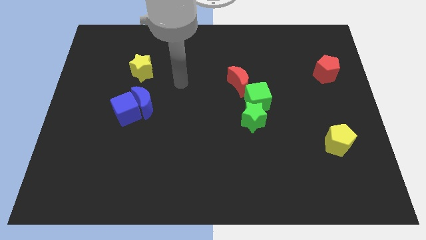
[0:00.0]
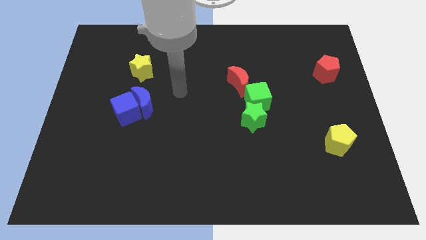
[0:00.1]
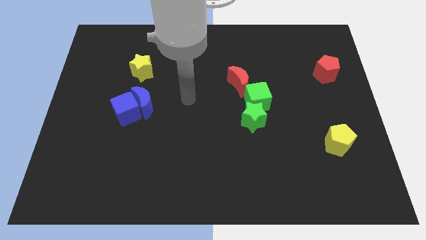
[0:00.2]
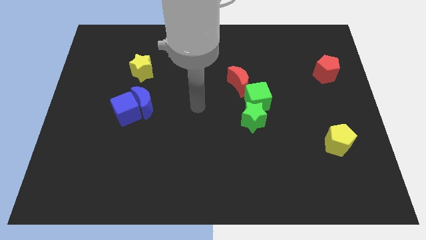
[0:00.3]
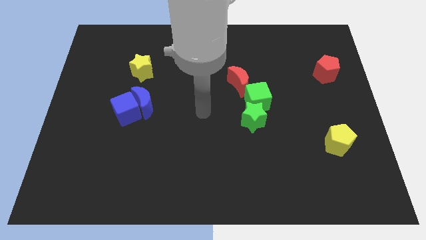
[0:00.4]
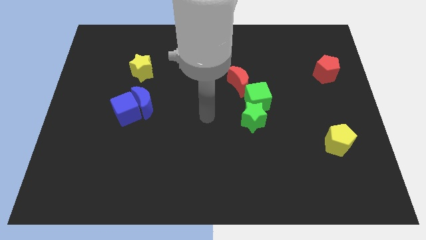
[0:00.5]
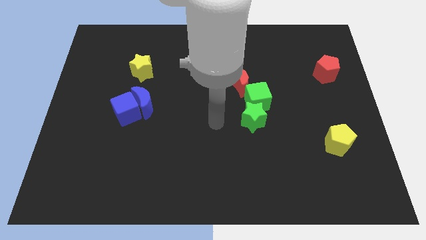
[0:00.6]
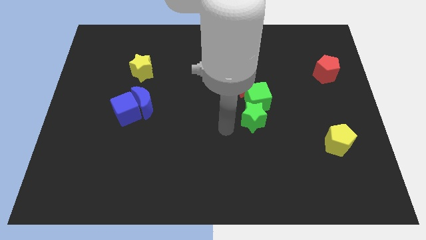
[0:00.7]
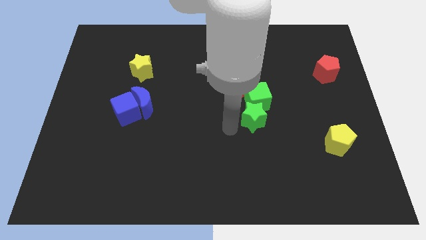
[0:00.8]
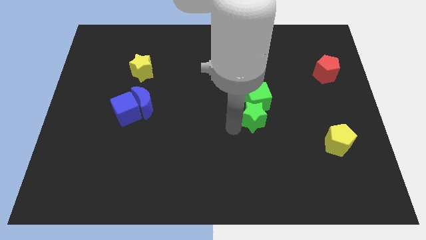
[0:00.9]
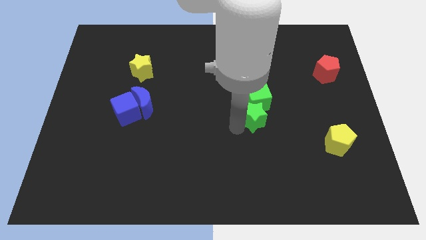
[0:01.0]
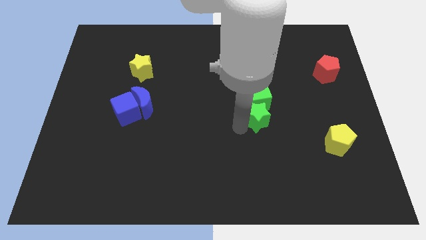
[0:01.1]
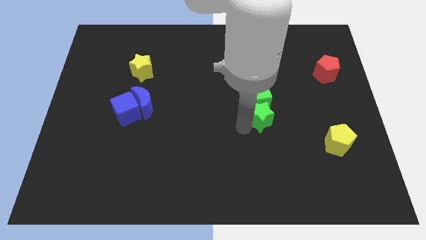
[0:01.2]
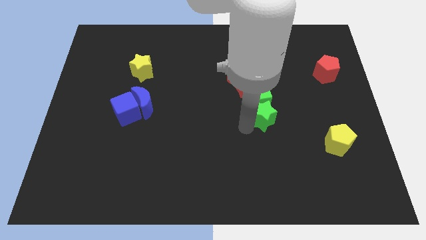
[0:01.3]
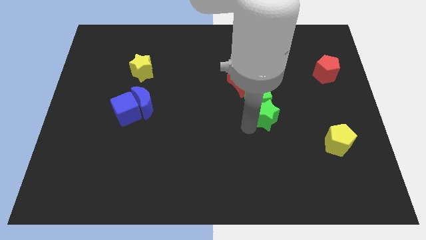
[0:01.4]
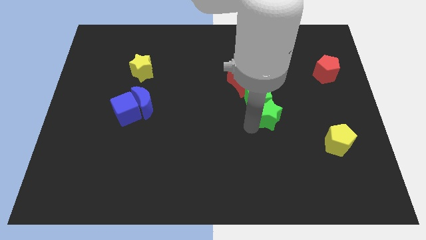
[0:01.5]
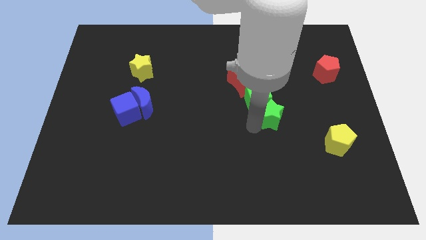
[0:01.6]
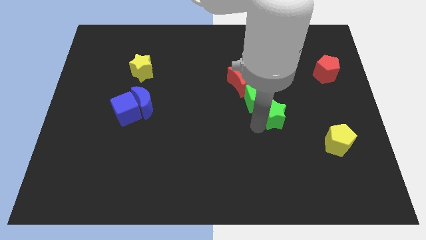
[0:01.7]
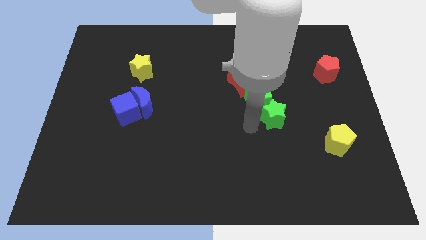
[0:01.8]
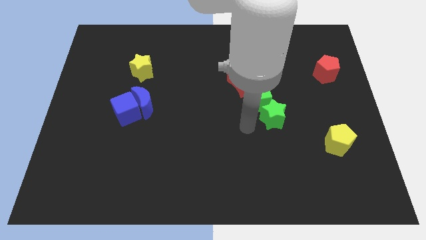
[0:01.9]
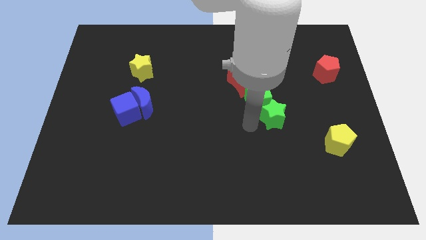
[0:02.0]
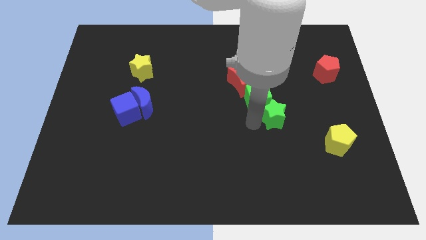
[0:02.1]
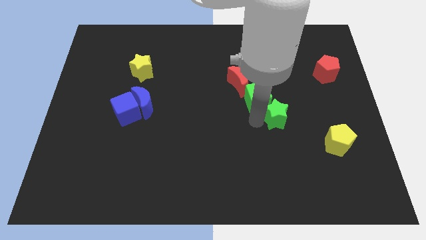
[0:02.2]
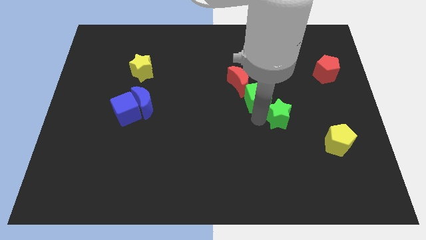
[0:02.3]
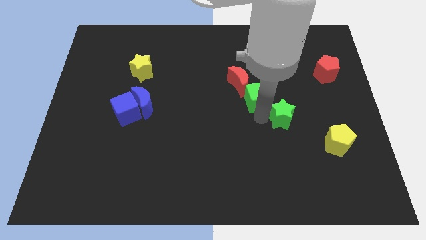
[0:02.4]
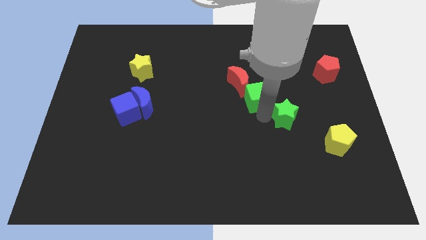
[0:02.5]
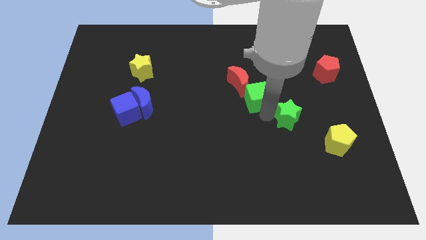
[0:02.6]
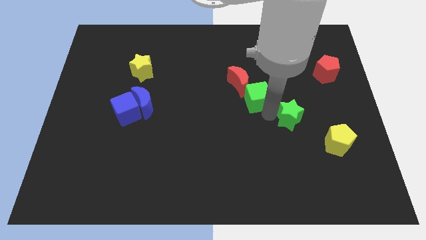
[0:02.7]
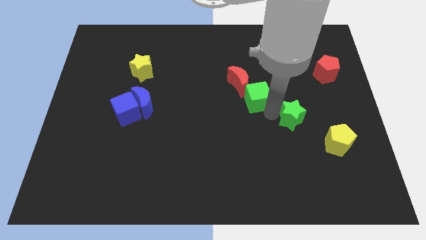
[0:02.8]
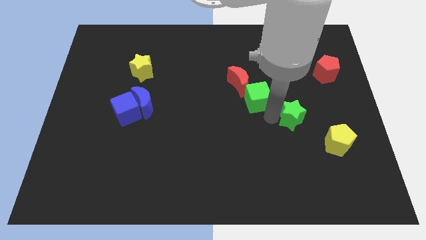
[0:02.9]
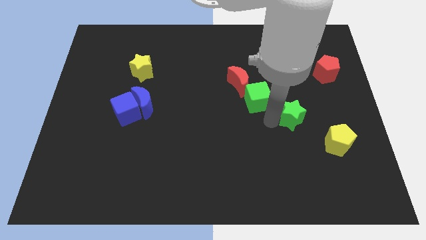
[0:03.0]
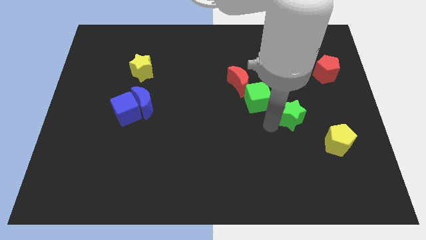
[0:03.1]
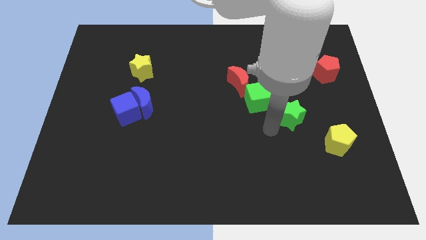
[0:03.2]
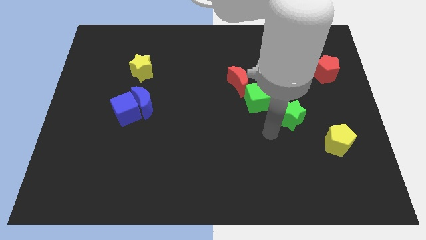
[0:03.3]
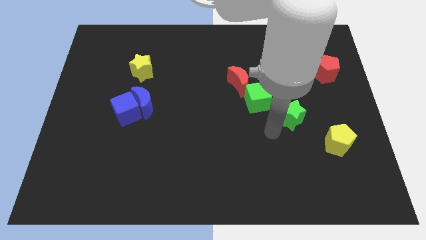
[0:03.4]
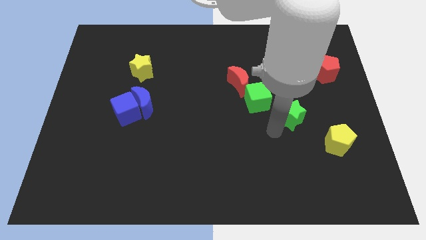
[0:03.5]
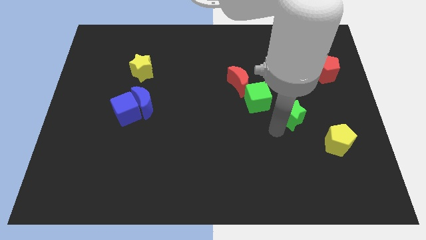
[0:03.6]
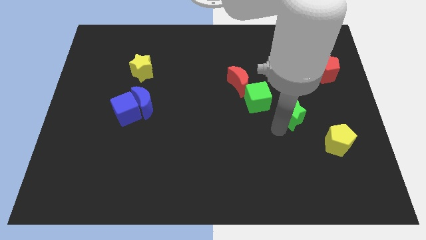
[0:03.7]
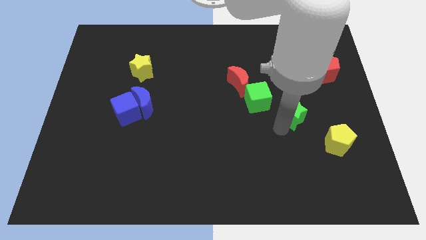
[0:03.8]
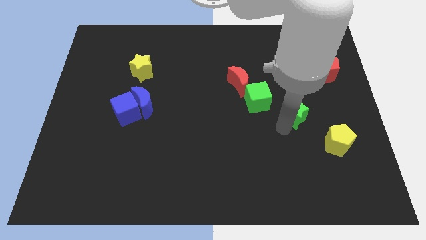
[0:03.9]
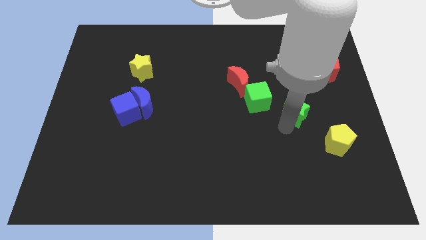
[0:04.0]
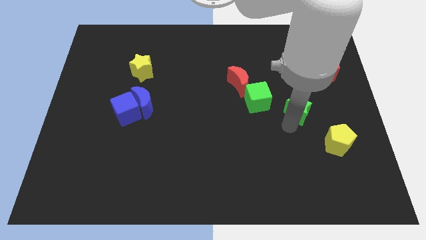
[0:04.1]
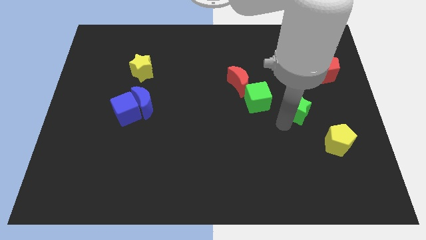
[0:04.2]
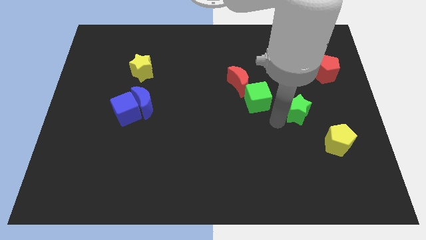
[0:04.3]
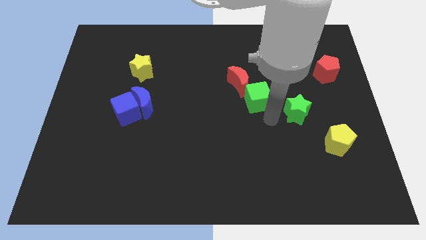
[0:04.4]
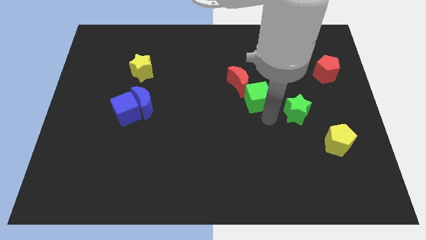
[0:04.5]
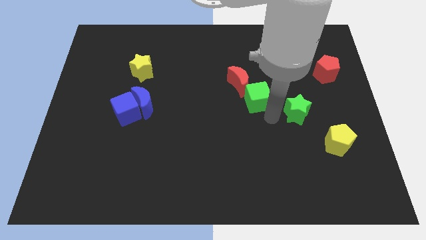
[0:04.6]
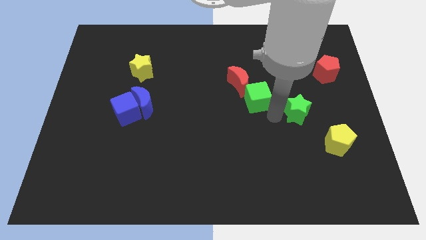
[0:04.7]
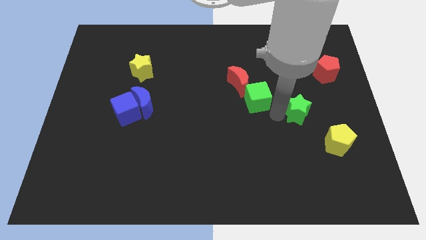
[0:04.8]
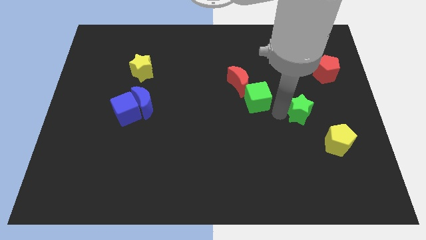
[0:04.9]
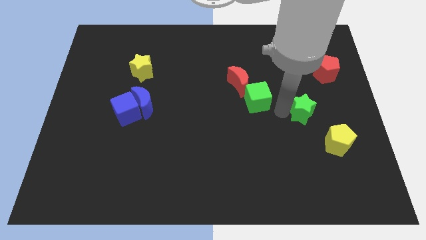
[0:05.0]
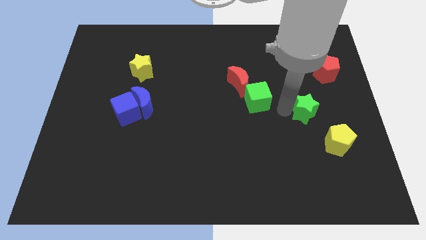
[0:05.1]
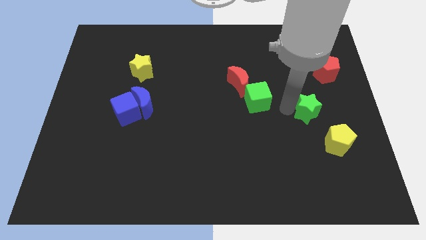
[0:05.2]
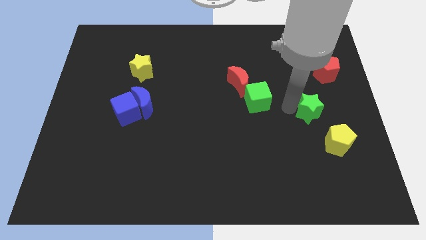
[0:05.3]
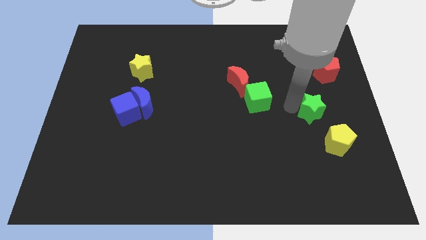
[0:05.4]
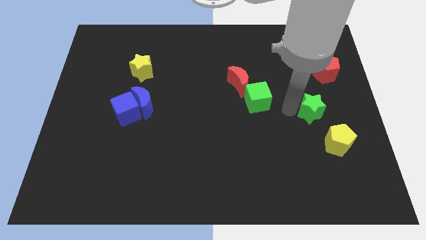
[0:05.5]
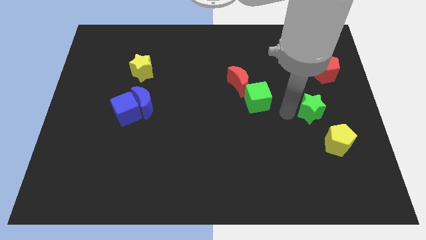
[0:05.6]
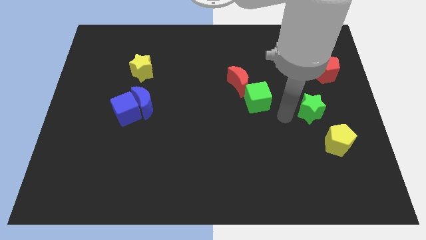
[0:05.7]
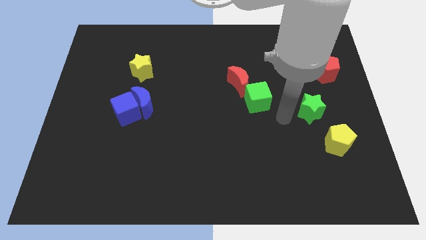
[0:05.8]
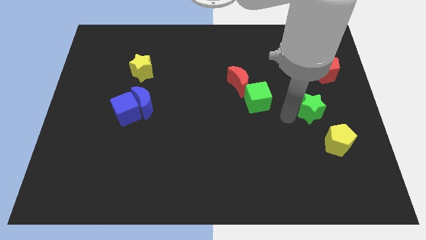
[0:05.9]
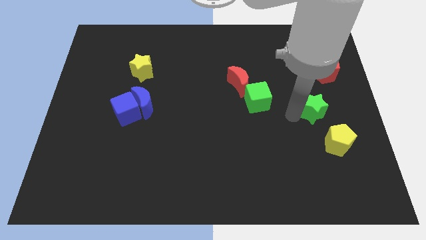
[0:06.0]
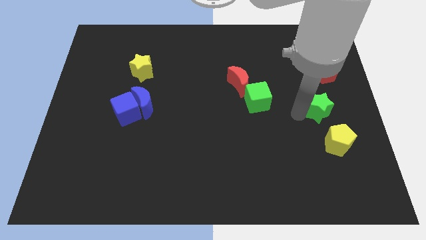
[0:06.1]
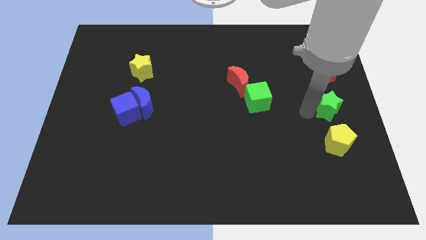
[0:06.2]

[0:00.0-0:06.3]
slide the green star to the right side

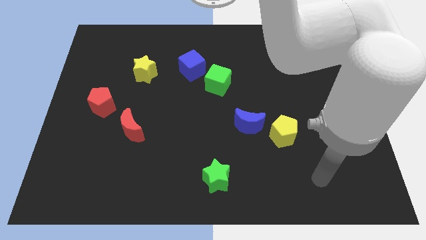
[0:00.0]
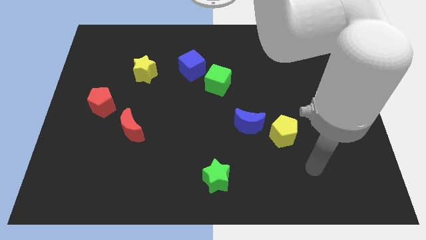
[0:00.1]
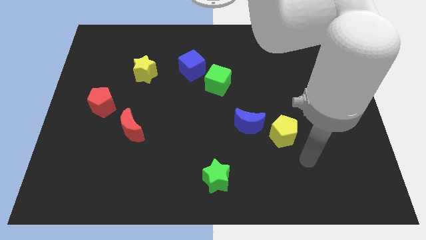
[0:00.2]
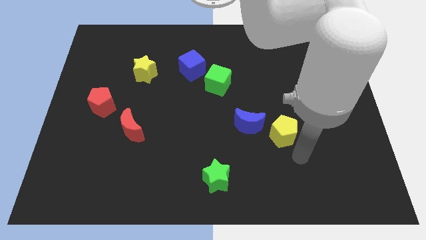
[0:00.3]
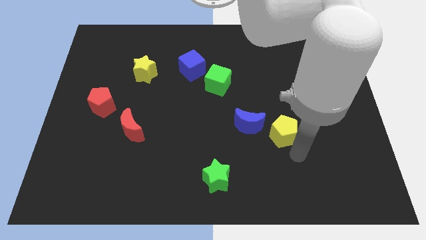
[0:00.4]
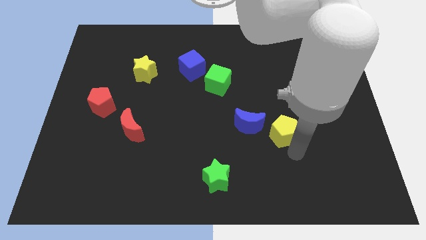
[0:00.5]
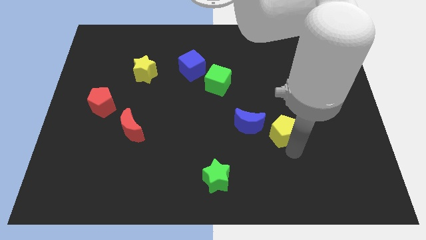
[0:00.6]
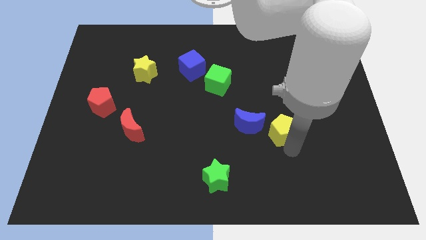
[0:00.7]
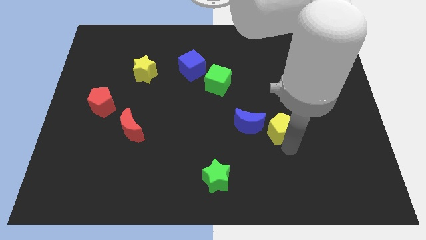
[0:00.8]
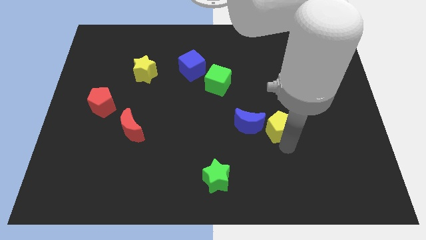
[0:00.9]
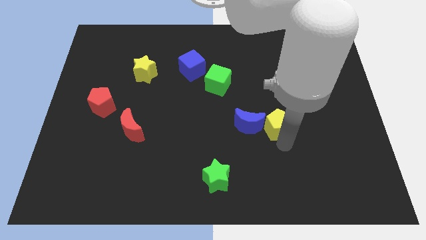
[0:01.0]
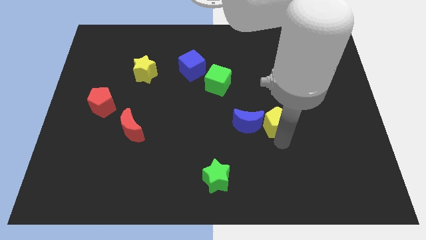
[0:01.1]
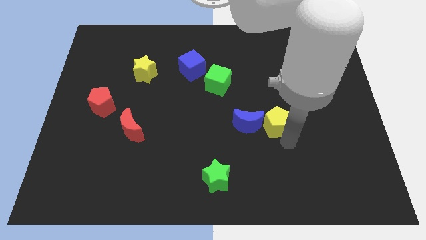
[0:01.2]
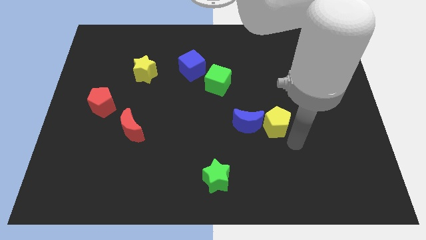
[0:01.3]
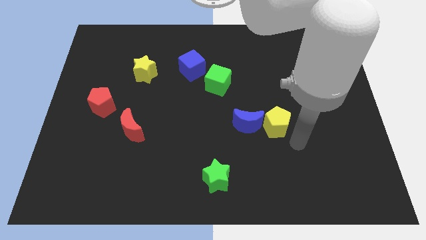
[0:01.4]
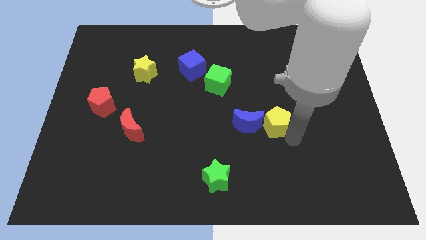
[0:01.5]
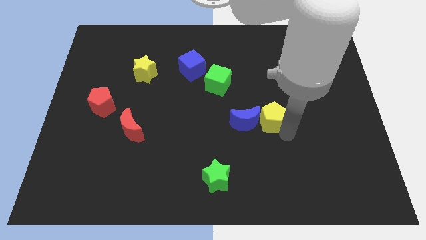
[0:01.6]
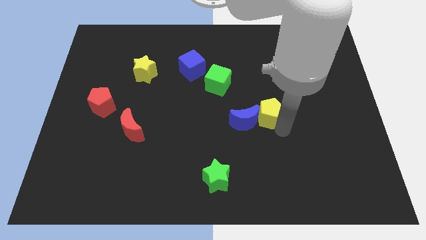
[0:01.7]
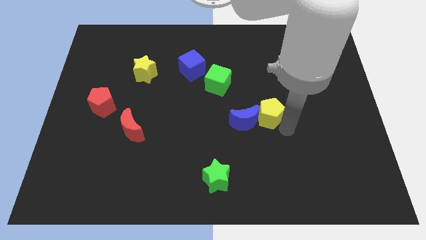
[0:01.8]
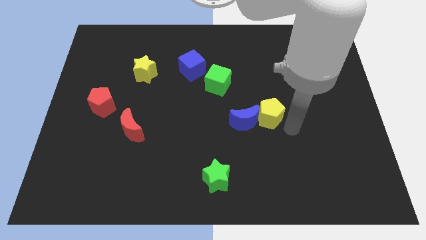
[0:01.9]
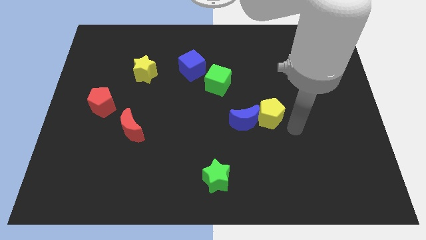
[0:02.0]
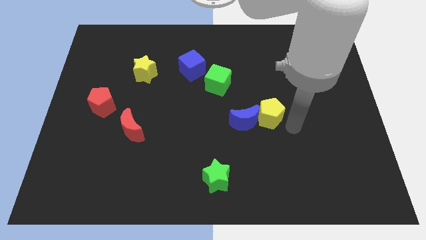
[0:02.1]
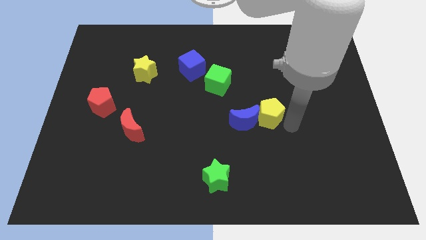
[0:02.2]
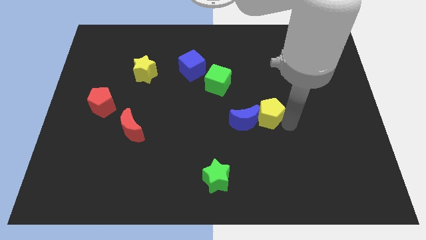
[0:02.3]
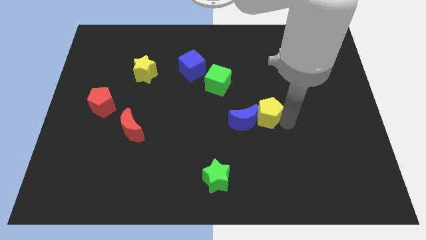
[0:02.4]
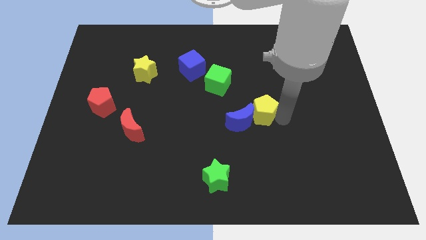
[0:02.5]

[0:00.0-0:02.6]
push the yellow pentagon to the center
